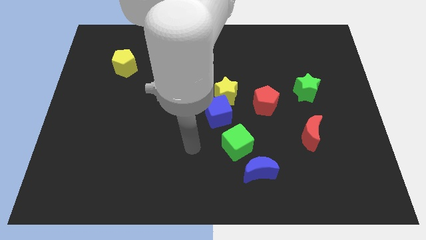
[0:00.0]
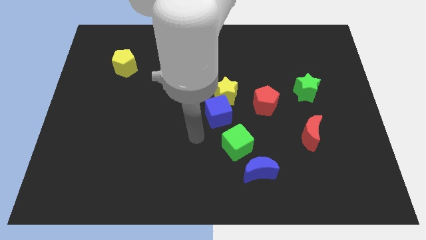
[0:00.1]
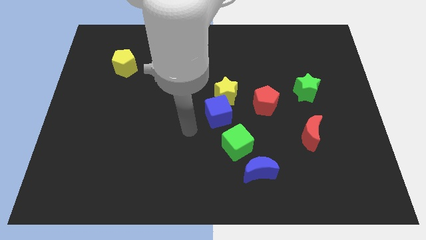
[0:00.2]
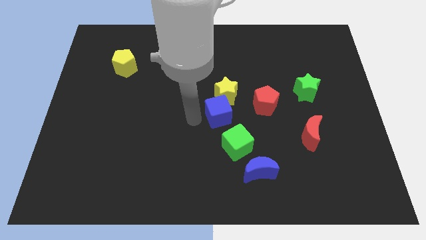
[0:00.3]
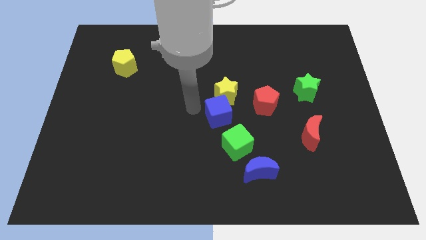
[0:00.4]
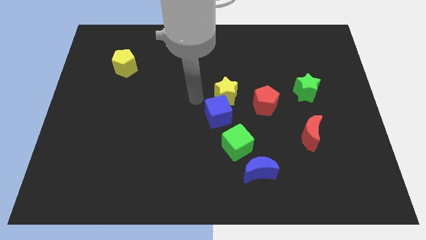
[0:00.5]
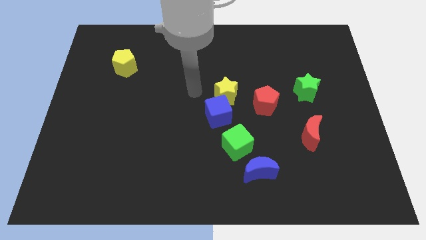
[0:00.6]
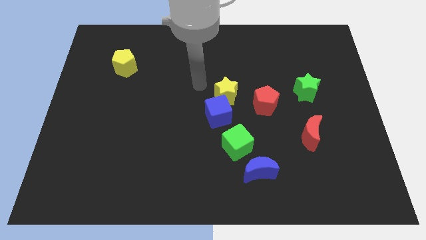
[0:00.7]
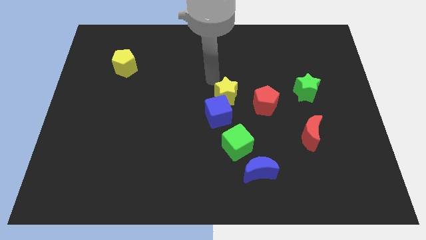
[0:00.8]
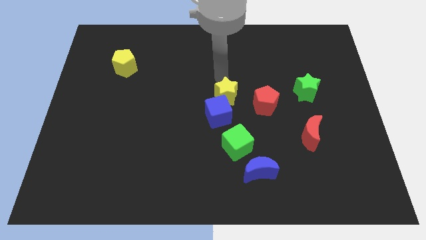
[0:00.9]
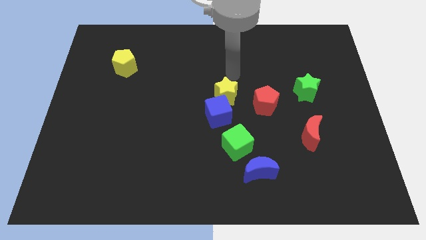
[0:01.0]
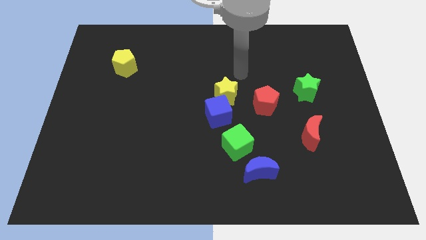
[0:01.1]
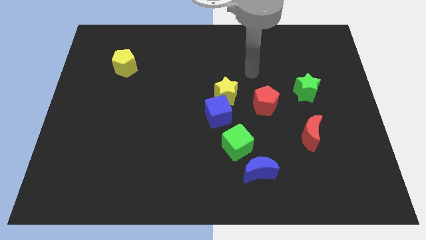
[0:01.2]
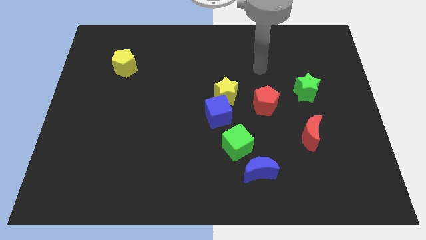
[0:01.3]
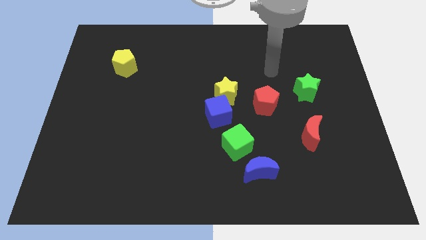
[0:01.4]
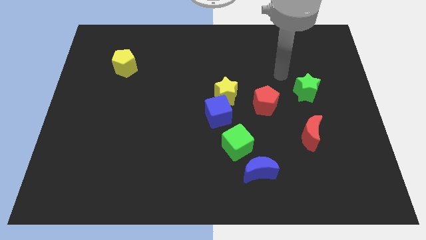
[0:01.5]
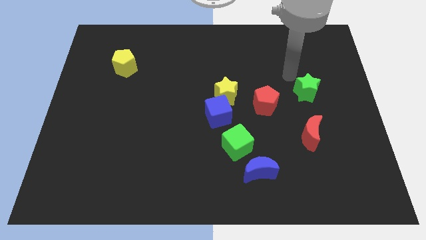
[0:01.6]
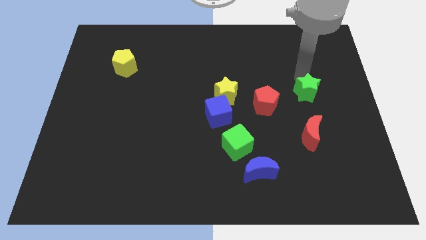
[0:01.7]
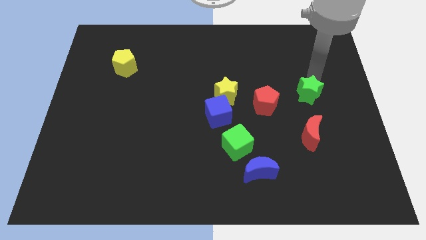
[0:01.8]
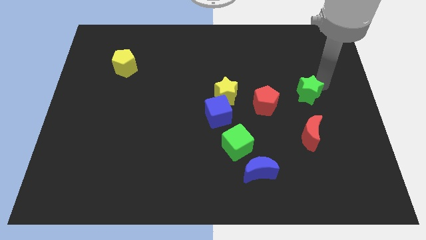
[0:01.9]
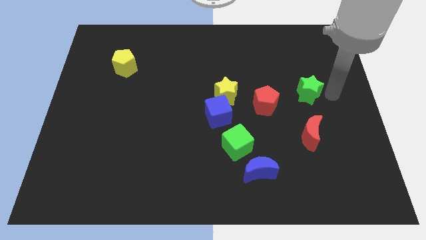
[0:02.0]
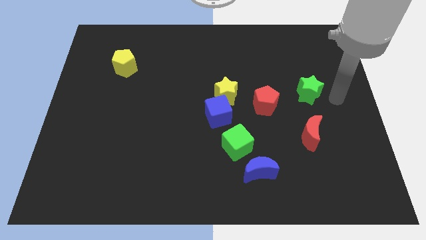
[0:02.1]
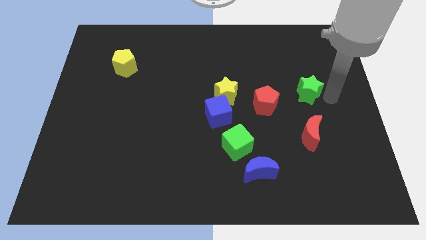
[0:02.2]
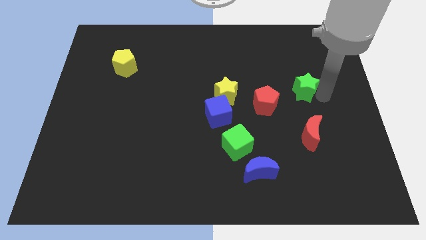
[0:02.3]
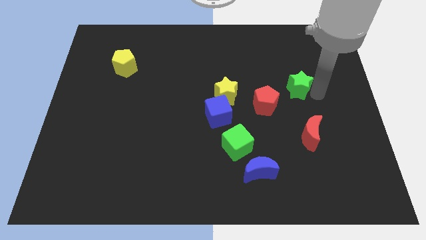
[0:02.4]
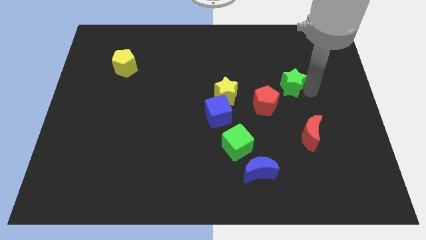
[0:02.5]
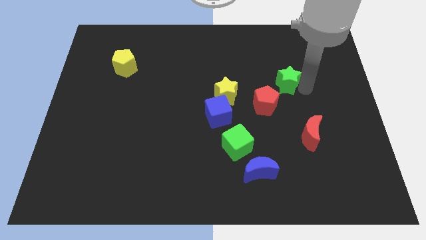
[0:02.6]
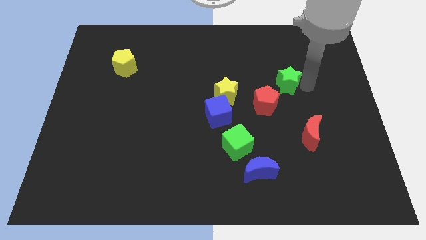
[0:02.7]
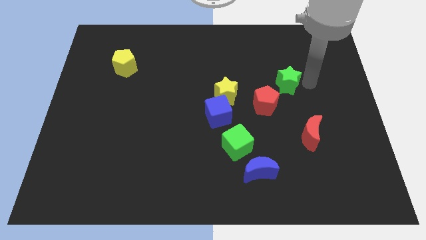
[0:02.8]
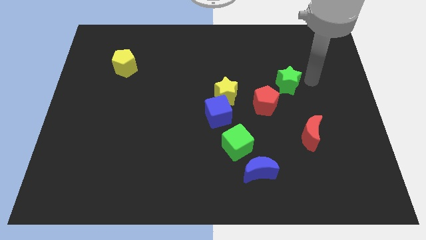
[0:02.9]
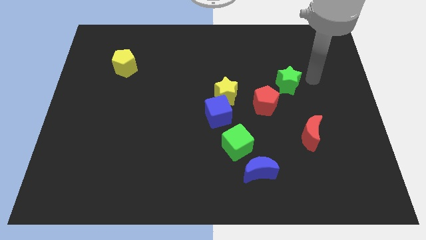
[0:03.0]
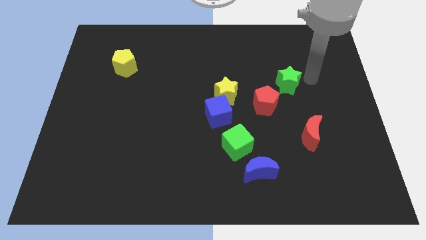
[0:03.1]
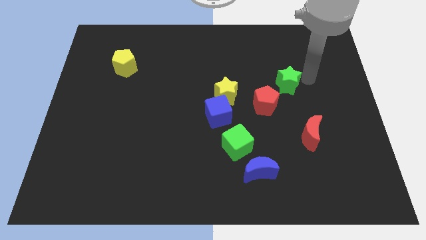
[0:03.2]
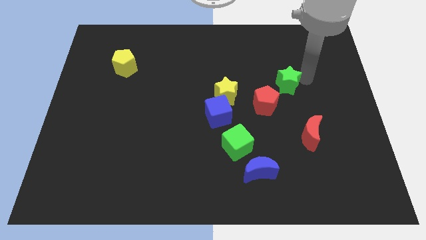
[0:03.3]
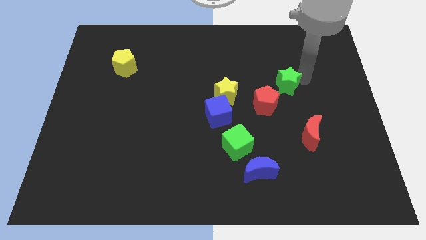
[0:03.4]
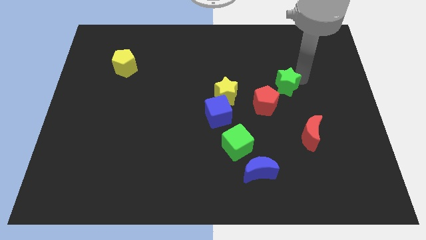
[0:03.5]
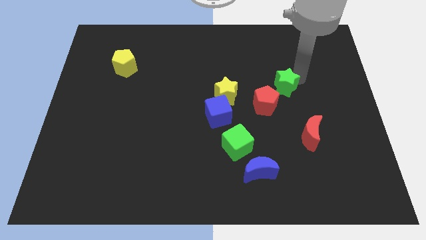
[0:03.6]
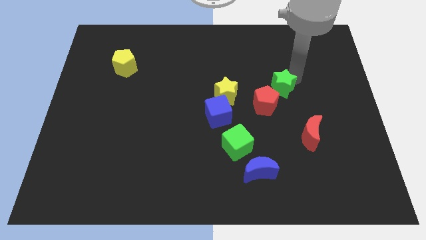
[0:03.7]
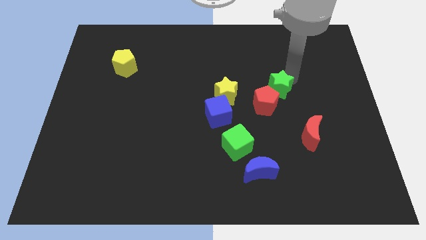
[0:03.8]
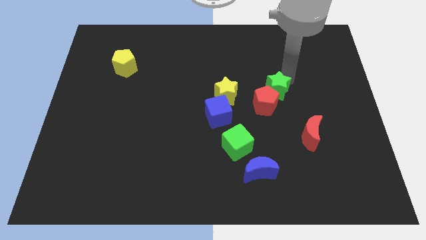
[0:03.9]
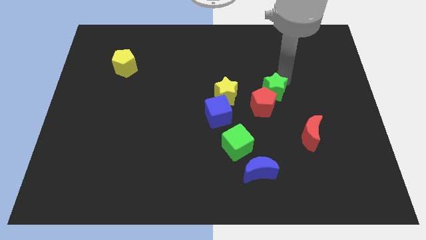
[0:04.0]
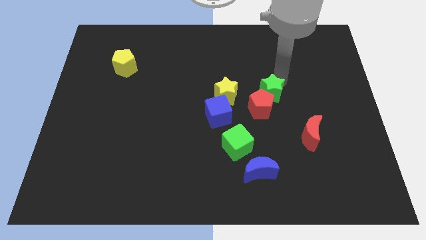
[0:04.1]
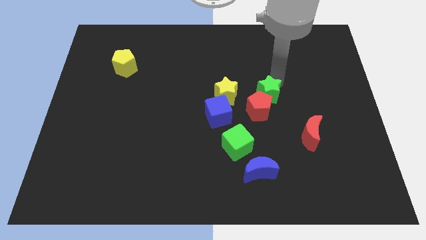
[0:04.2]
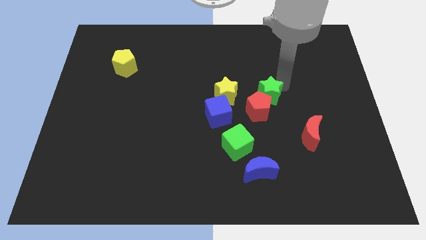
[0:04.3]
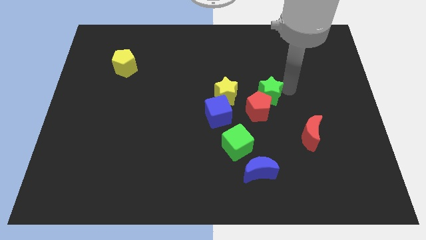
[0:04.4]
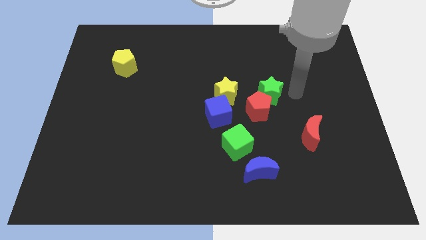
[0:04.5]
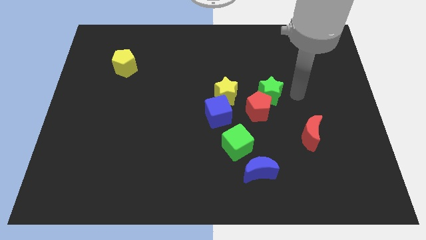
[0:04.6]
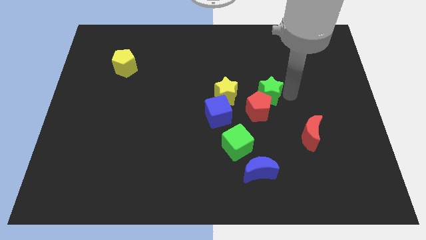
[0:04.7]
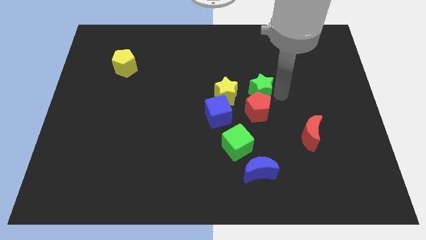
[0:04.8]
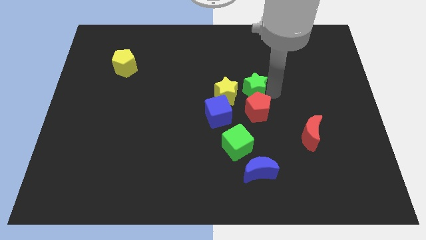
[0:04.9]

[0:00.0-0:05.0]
push the green star to the top left side of the red pentagon

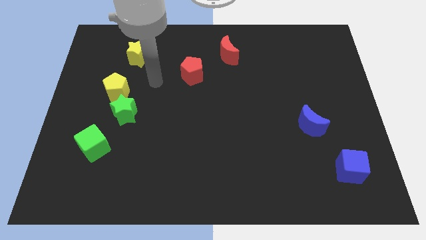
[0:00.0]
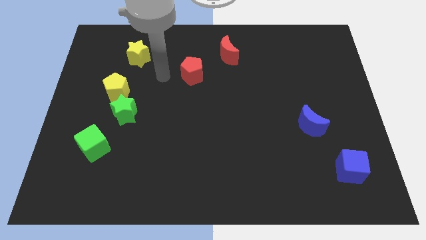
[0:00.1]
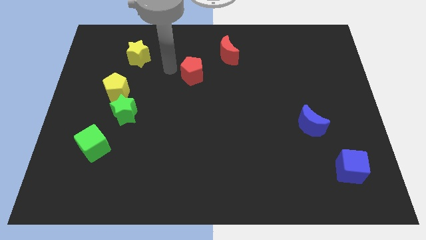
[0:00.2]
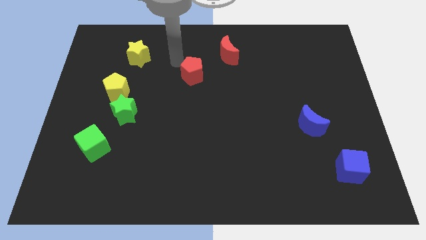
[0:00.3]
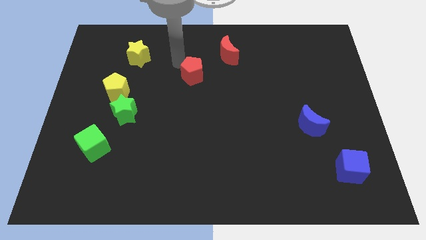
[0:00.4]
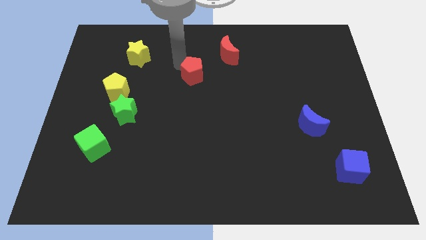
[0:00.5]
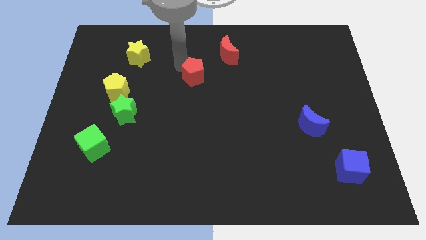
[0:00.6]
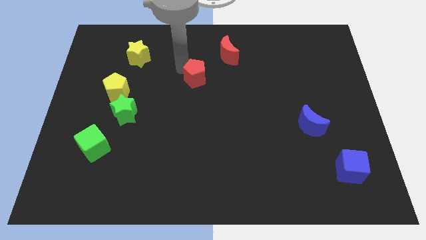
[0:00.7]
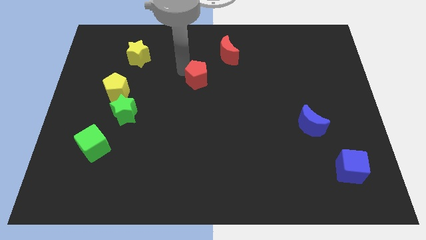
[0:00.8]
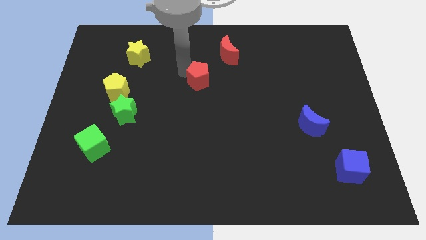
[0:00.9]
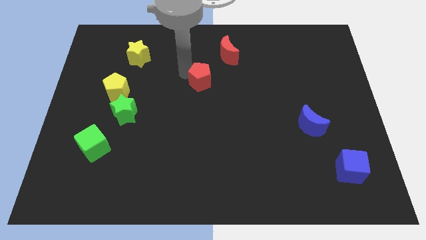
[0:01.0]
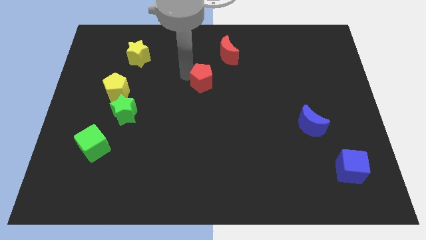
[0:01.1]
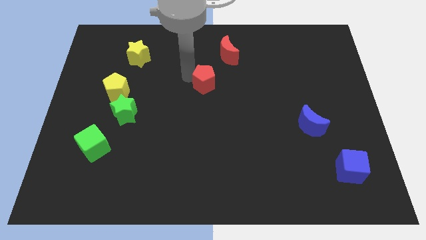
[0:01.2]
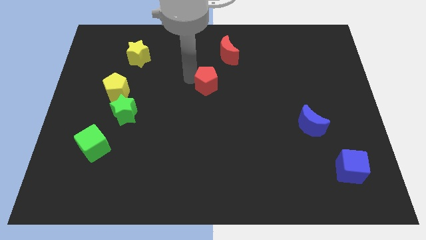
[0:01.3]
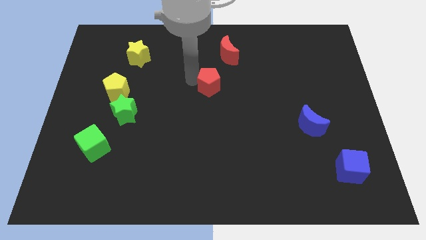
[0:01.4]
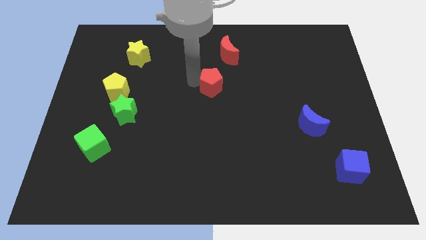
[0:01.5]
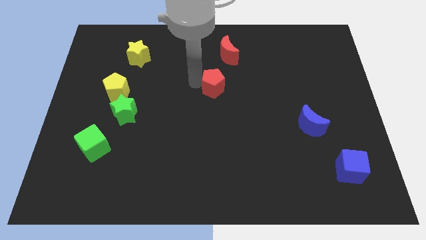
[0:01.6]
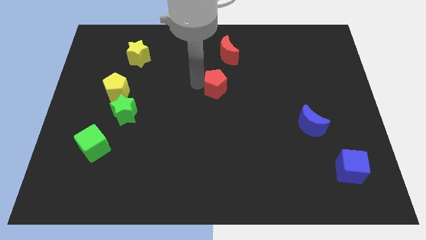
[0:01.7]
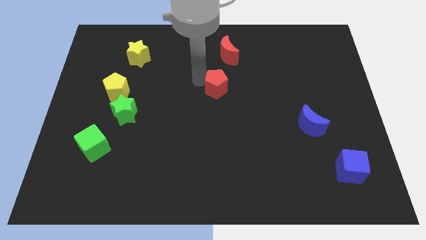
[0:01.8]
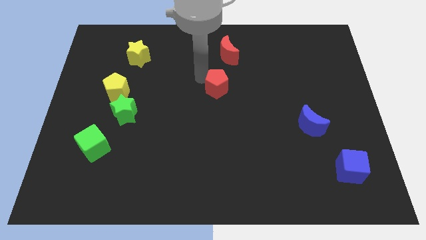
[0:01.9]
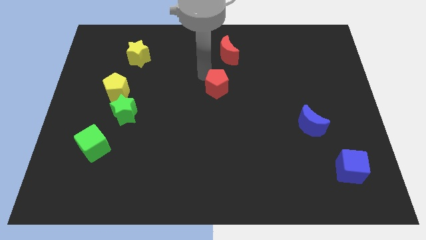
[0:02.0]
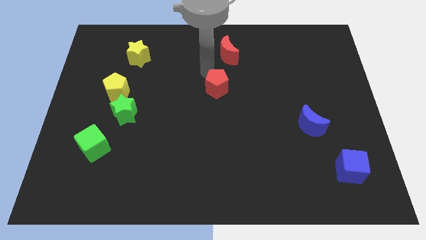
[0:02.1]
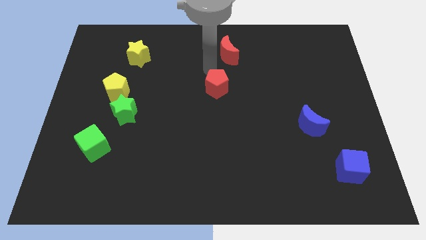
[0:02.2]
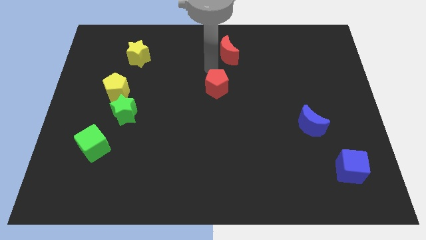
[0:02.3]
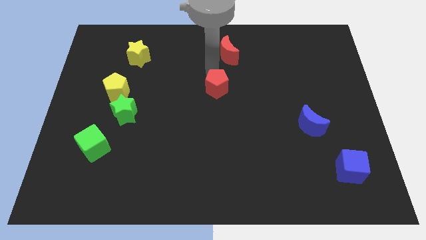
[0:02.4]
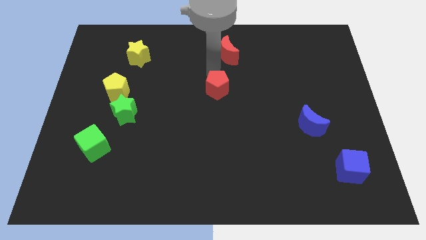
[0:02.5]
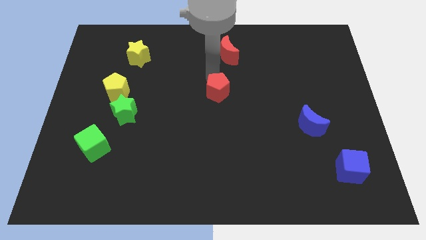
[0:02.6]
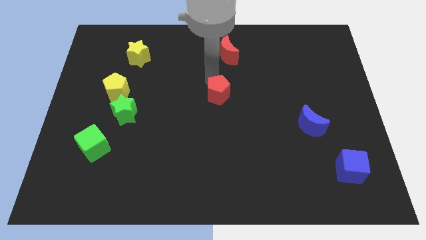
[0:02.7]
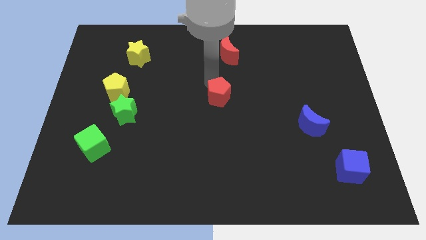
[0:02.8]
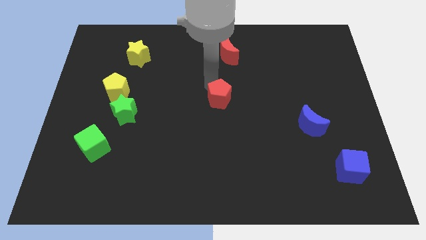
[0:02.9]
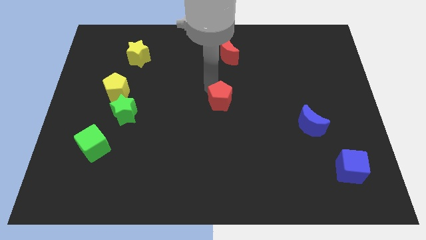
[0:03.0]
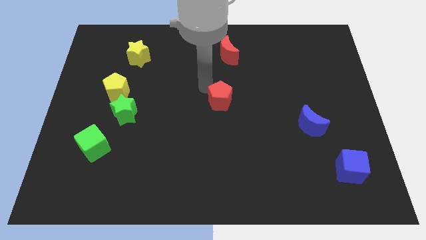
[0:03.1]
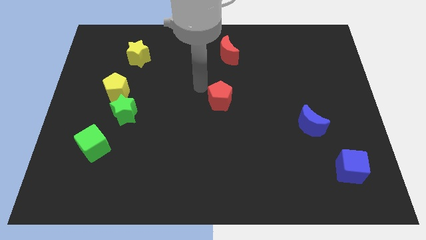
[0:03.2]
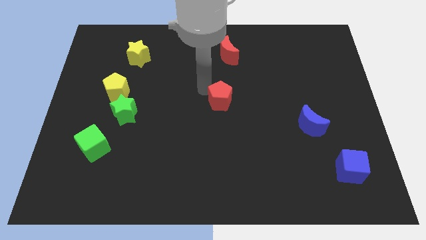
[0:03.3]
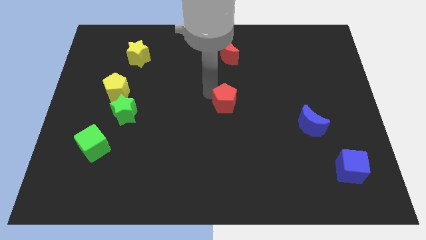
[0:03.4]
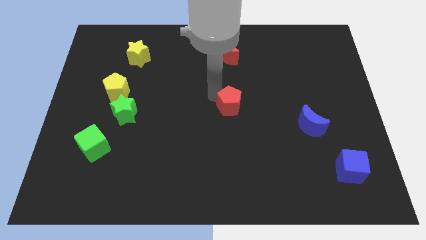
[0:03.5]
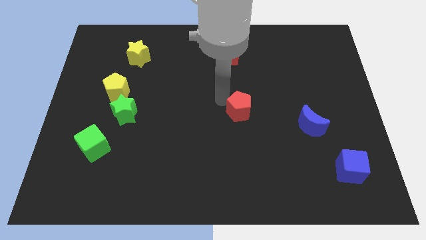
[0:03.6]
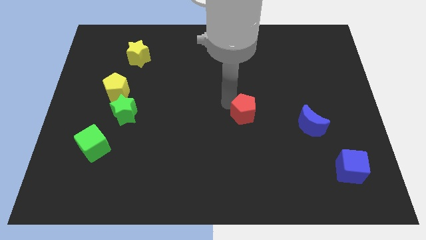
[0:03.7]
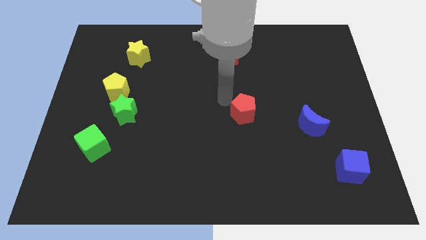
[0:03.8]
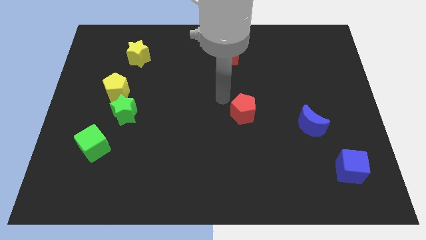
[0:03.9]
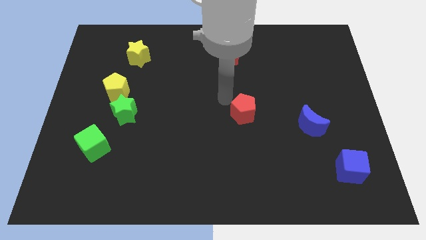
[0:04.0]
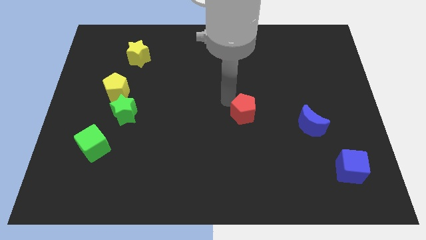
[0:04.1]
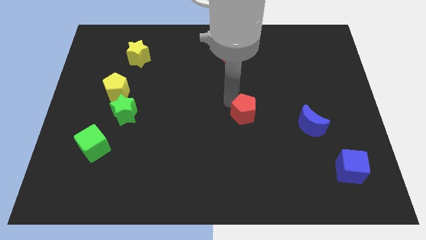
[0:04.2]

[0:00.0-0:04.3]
put the red pentagon to the left of the blue moon
